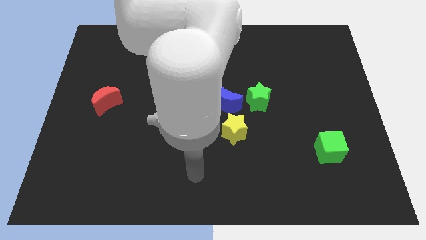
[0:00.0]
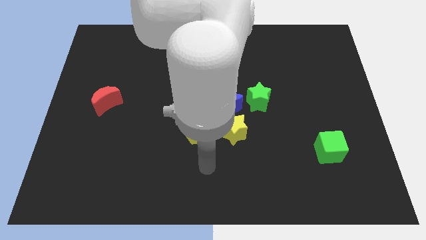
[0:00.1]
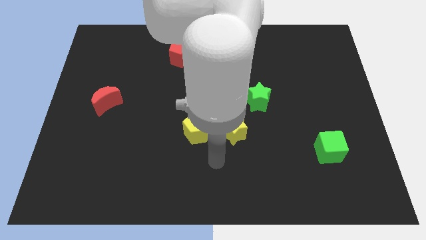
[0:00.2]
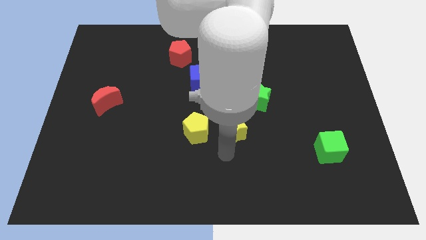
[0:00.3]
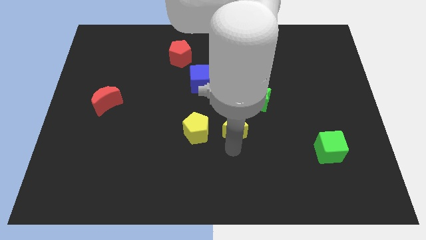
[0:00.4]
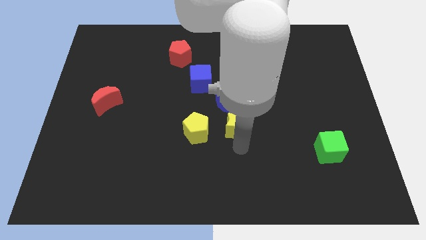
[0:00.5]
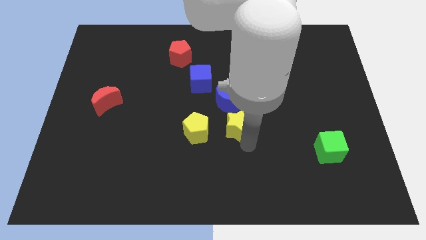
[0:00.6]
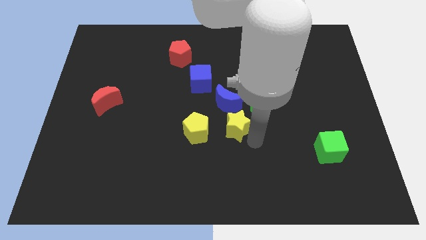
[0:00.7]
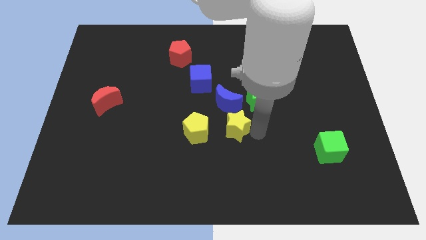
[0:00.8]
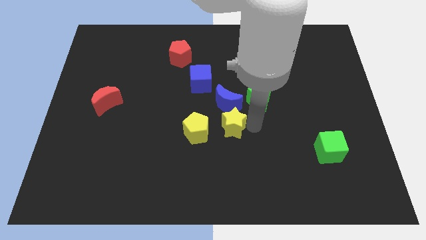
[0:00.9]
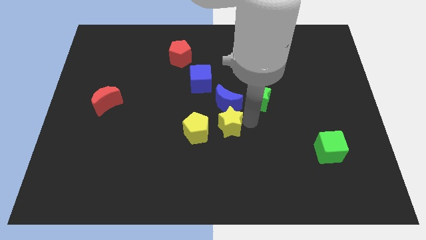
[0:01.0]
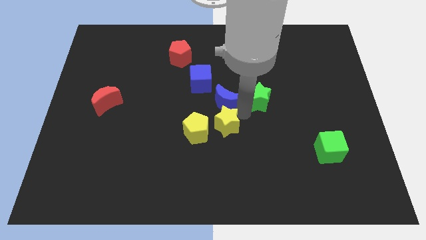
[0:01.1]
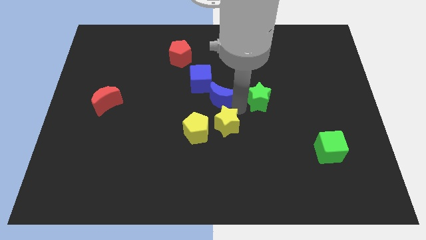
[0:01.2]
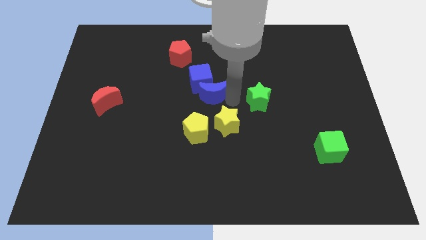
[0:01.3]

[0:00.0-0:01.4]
move the green star away from the blue moon

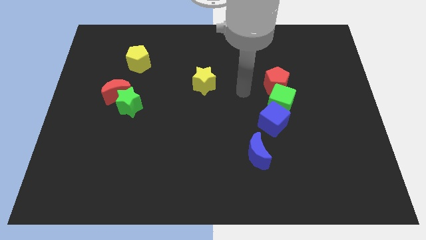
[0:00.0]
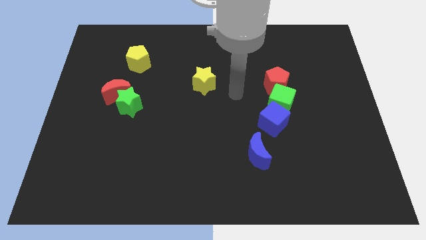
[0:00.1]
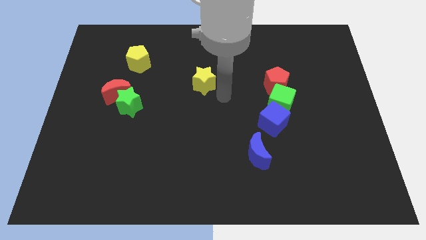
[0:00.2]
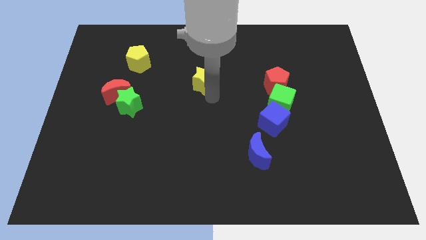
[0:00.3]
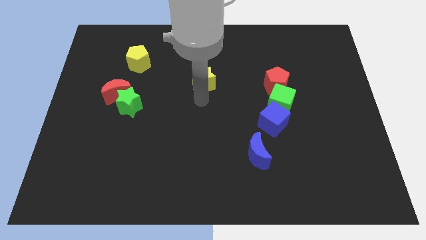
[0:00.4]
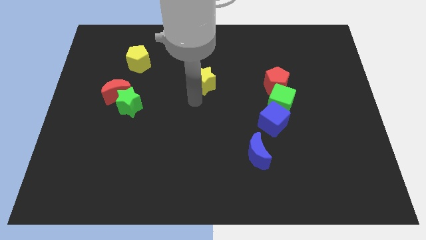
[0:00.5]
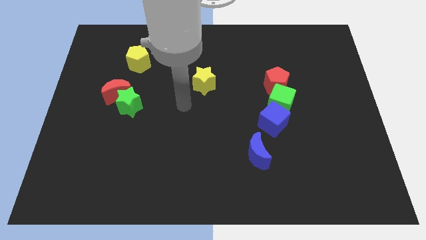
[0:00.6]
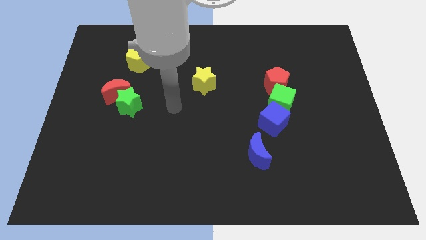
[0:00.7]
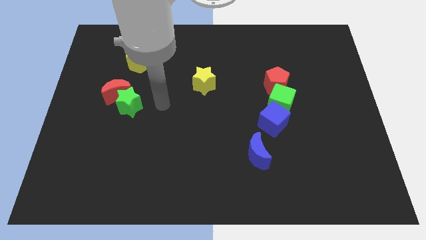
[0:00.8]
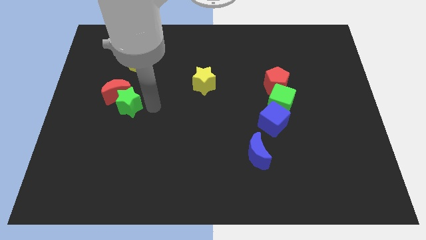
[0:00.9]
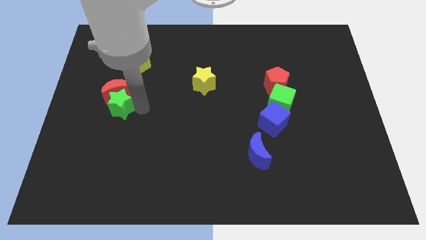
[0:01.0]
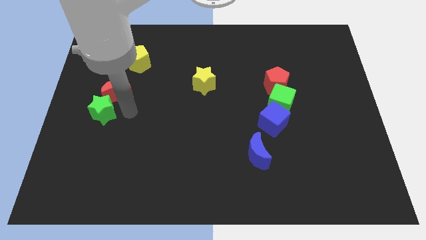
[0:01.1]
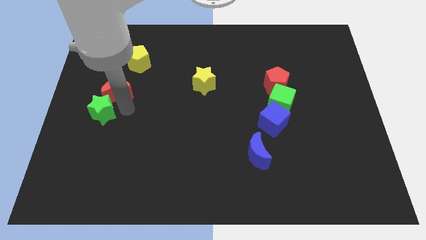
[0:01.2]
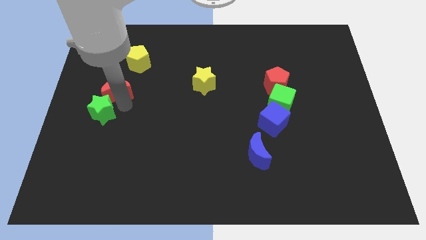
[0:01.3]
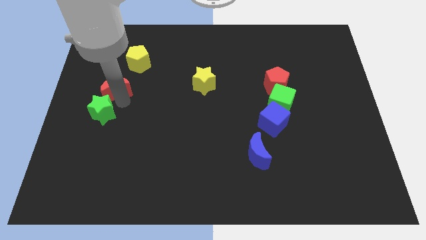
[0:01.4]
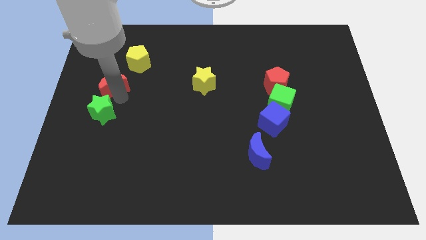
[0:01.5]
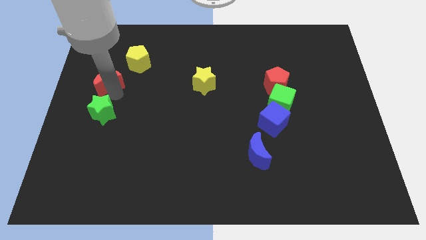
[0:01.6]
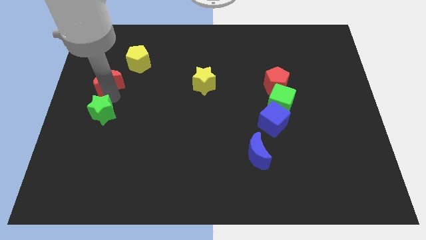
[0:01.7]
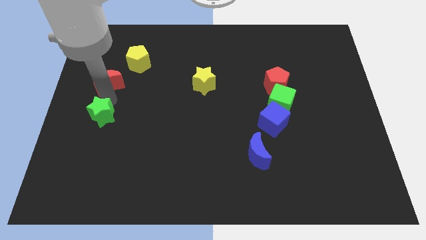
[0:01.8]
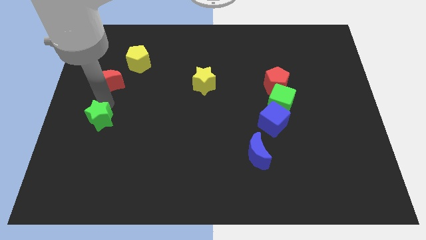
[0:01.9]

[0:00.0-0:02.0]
separate the red moon from the green star

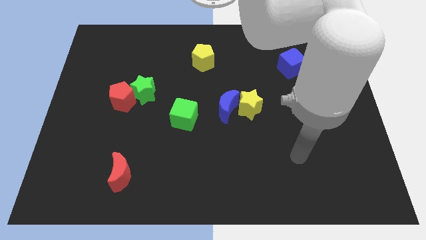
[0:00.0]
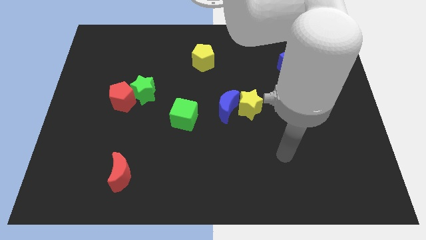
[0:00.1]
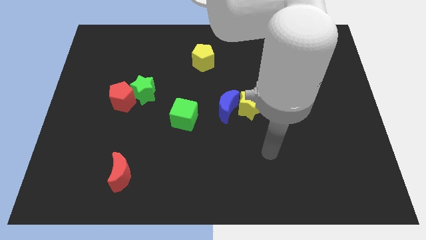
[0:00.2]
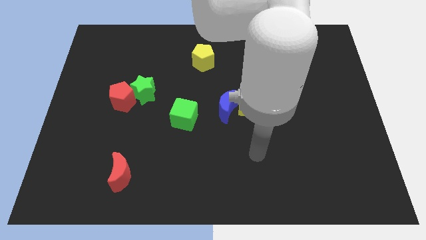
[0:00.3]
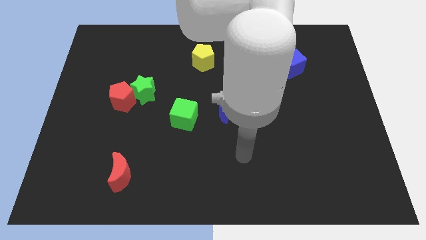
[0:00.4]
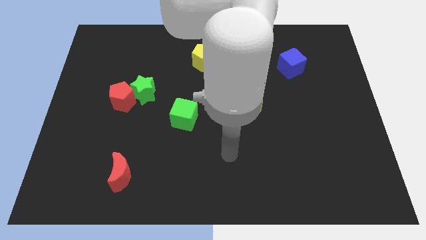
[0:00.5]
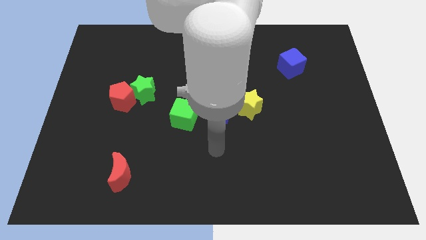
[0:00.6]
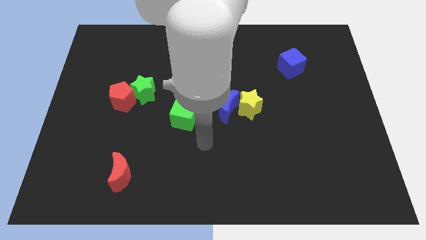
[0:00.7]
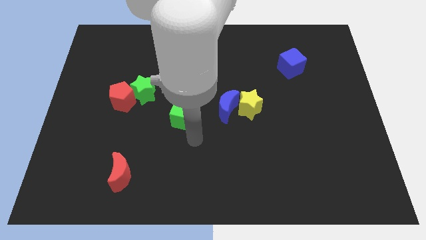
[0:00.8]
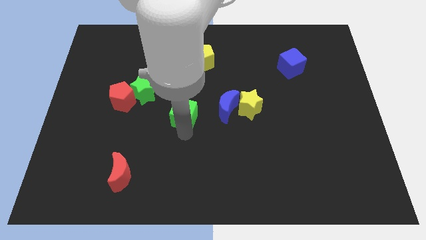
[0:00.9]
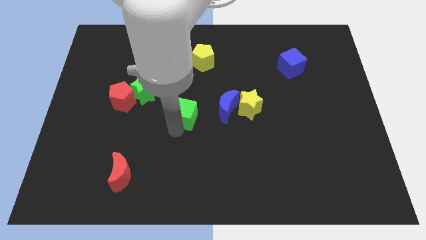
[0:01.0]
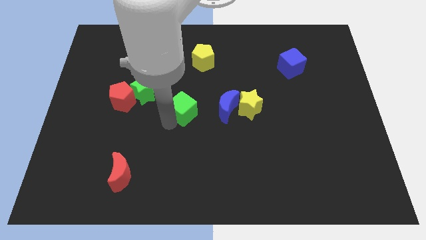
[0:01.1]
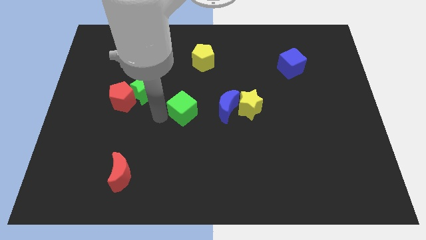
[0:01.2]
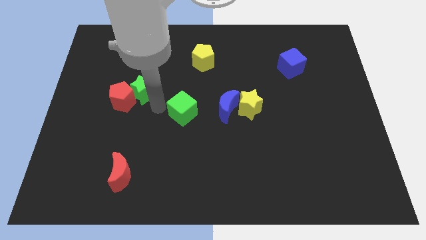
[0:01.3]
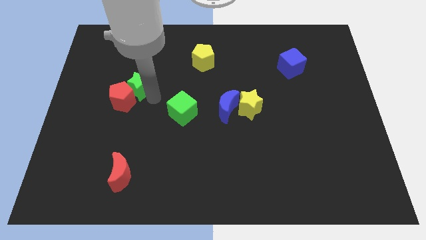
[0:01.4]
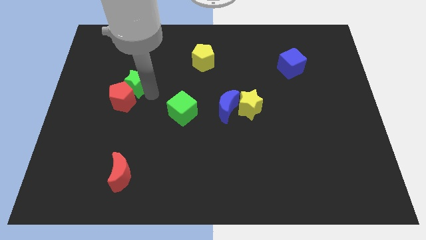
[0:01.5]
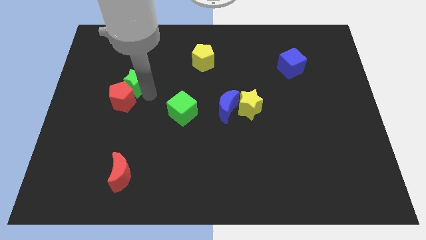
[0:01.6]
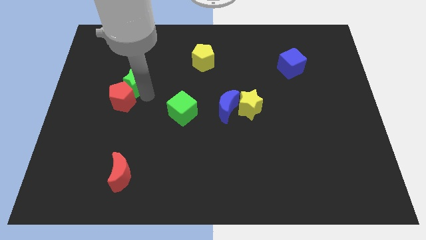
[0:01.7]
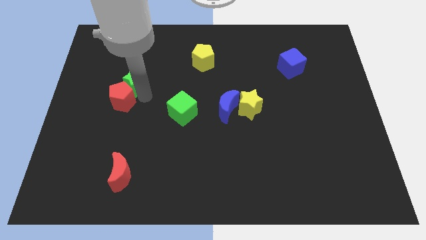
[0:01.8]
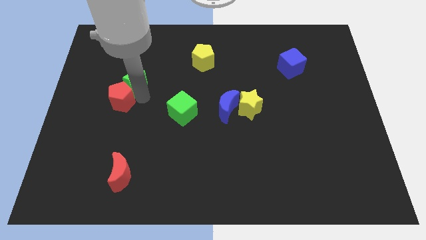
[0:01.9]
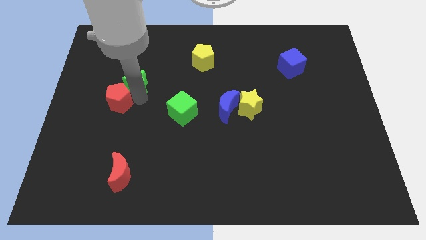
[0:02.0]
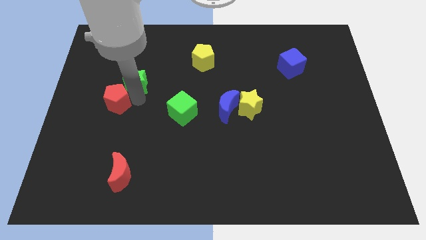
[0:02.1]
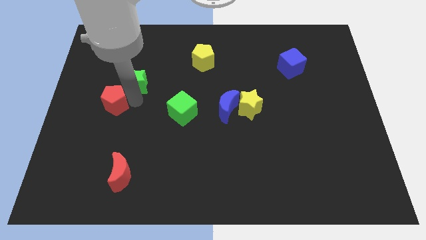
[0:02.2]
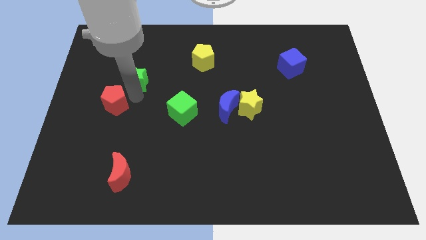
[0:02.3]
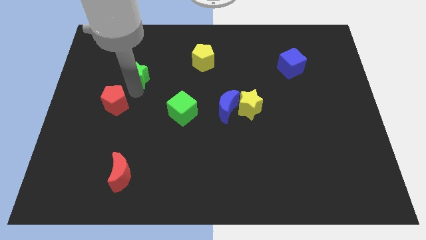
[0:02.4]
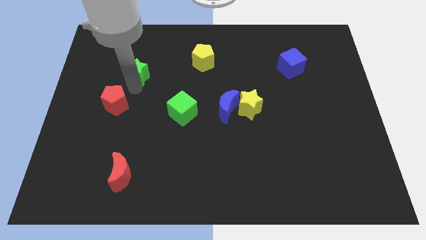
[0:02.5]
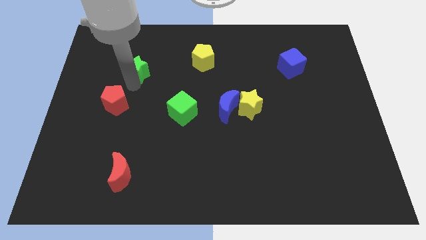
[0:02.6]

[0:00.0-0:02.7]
move the red pentagon away from the green star

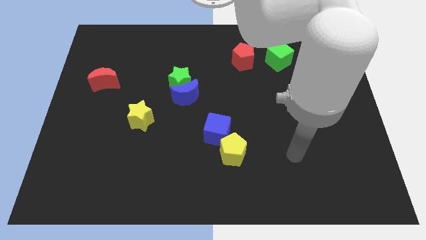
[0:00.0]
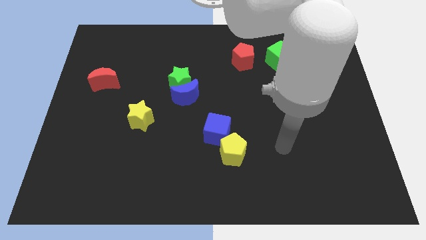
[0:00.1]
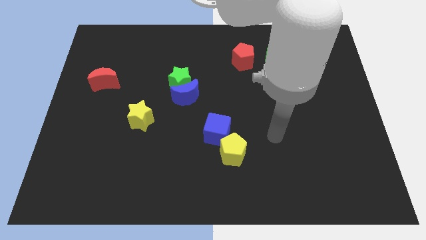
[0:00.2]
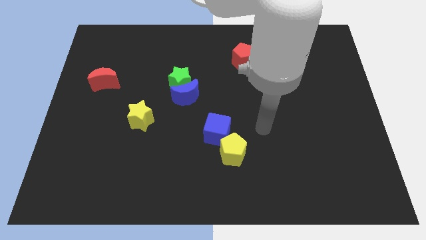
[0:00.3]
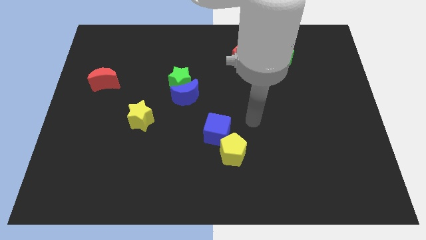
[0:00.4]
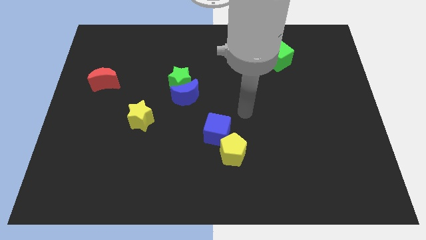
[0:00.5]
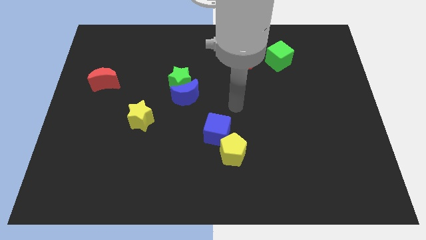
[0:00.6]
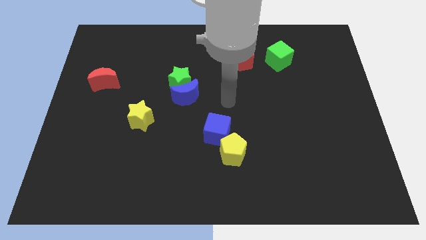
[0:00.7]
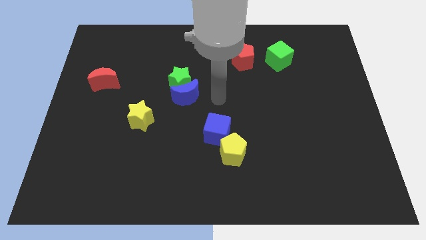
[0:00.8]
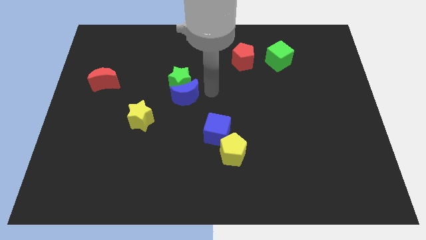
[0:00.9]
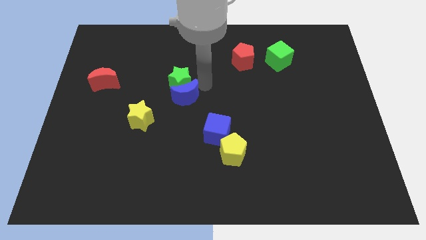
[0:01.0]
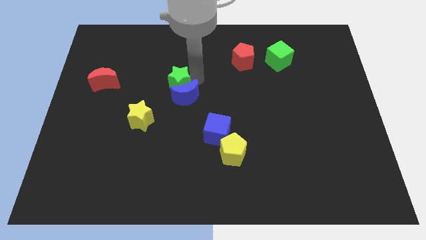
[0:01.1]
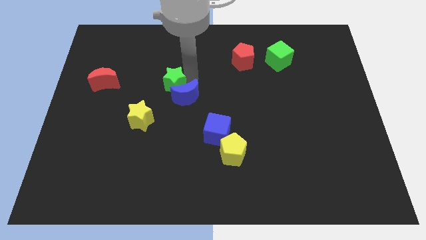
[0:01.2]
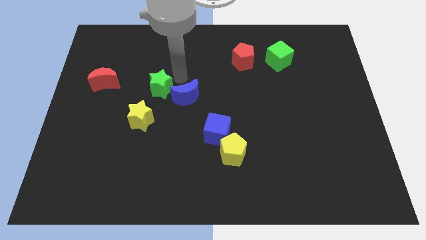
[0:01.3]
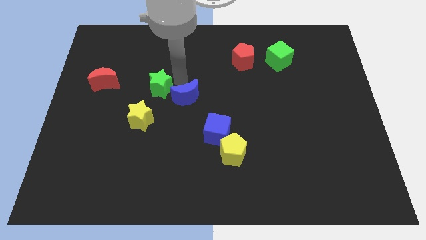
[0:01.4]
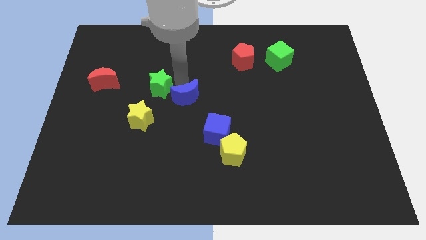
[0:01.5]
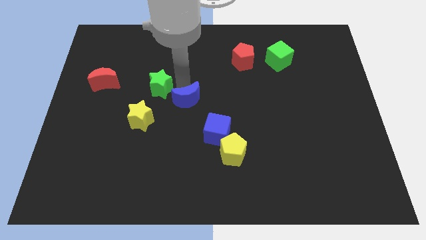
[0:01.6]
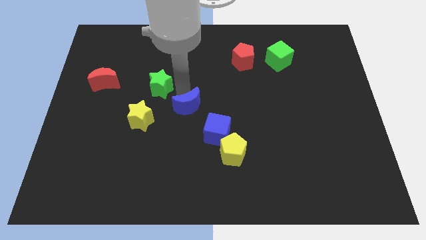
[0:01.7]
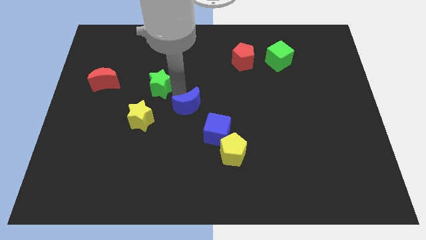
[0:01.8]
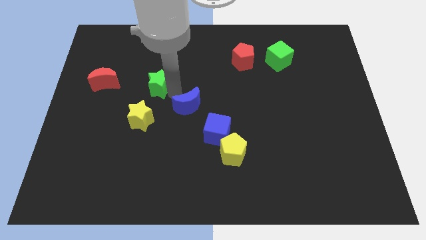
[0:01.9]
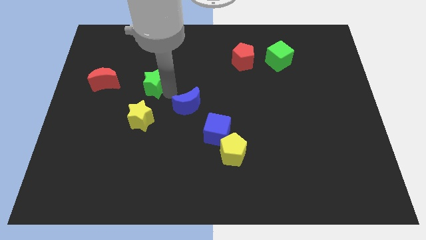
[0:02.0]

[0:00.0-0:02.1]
separate the blue moon from the green star

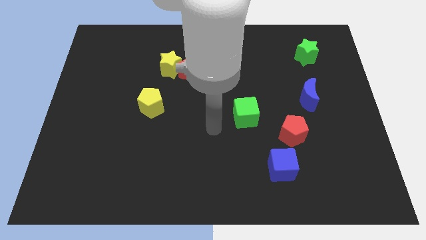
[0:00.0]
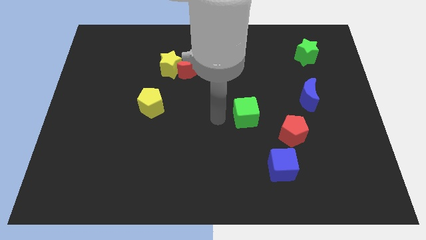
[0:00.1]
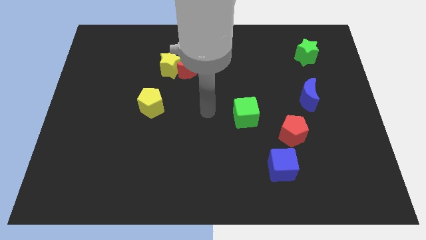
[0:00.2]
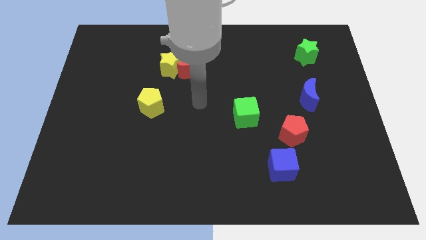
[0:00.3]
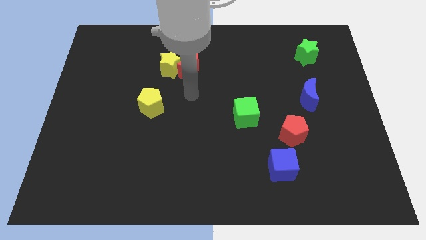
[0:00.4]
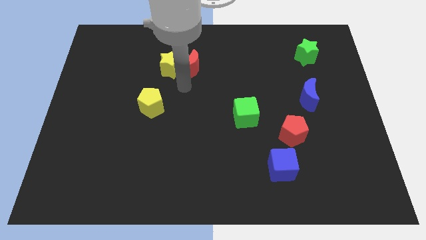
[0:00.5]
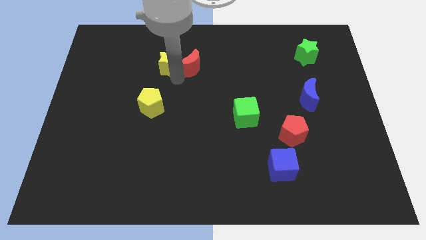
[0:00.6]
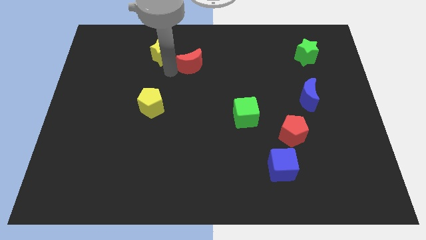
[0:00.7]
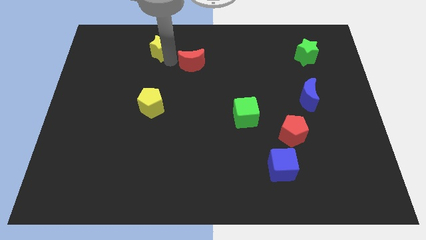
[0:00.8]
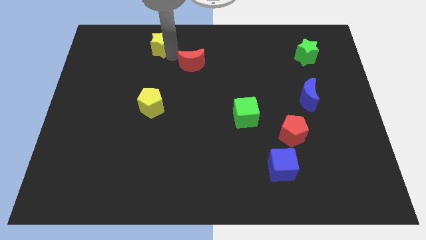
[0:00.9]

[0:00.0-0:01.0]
pull the red moon apart from the yellow star

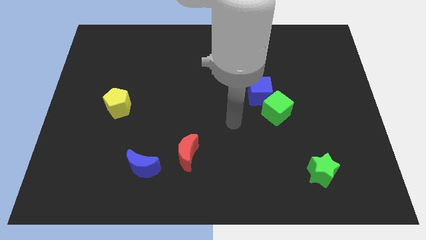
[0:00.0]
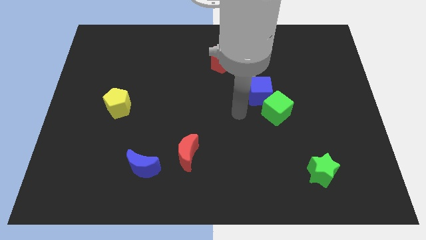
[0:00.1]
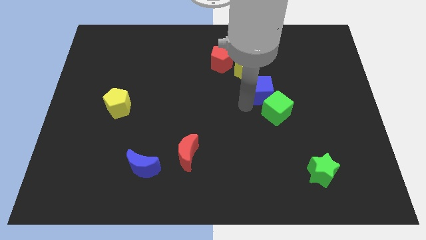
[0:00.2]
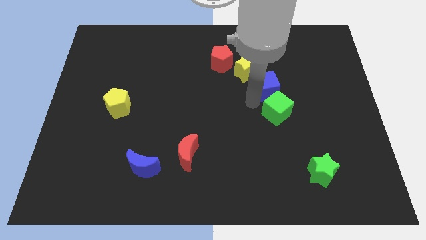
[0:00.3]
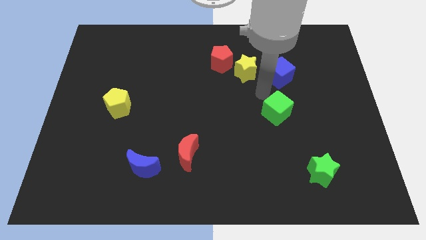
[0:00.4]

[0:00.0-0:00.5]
separate the green cube from the blue cube
